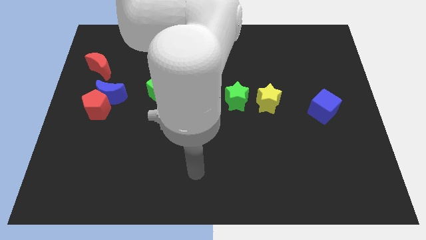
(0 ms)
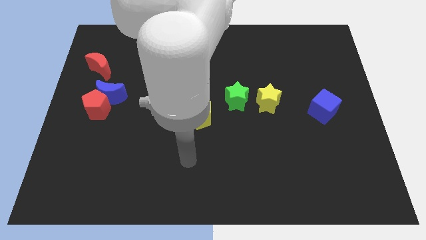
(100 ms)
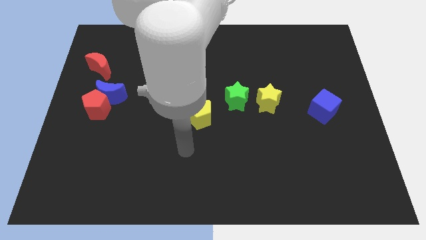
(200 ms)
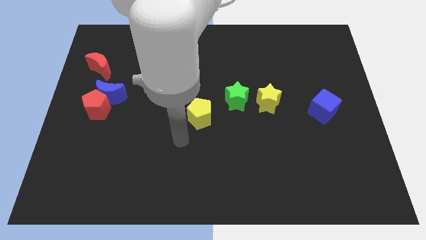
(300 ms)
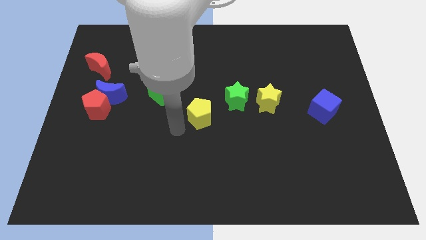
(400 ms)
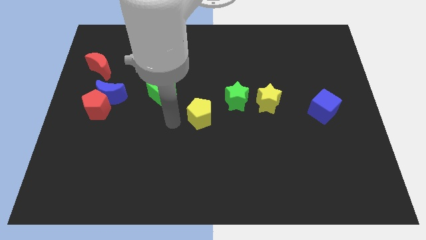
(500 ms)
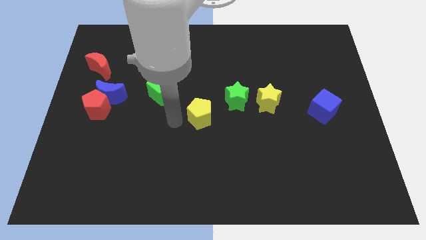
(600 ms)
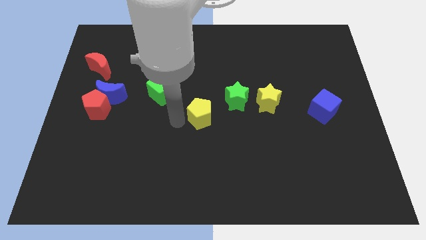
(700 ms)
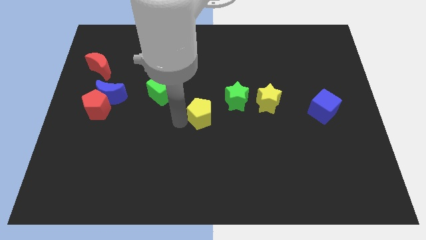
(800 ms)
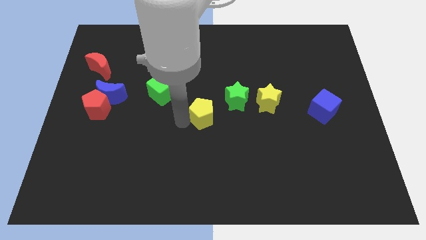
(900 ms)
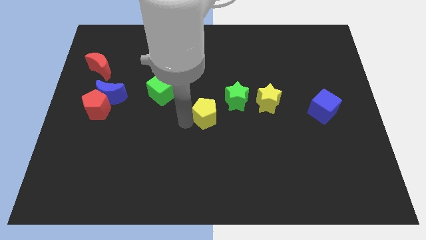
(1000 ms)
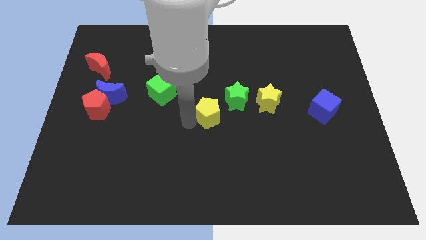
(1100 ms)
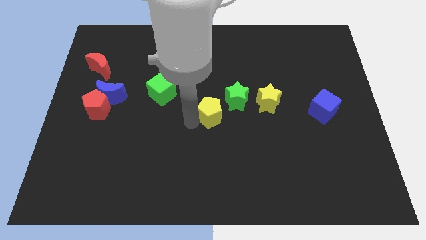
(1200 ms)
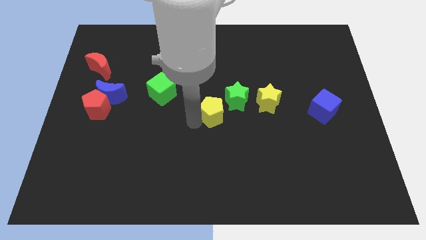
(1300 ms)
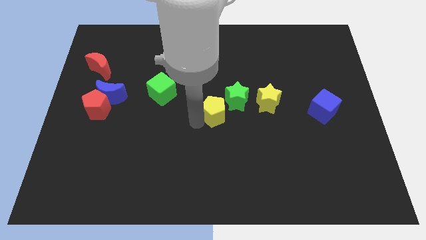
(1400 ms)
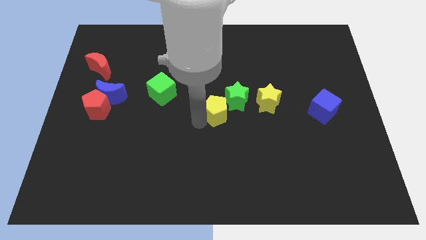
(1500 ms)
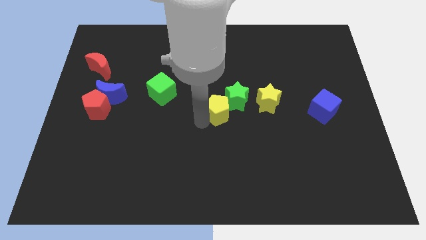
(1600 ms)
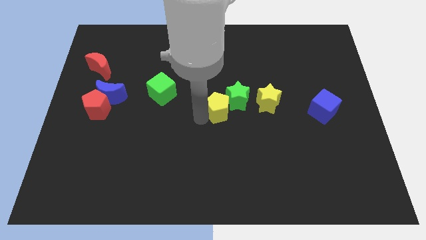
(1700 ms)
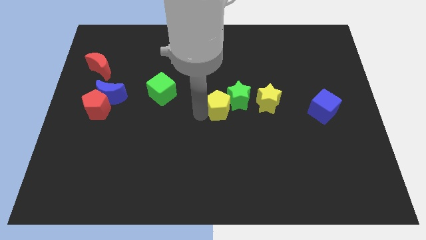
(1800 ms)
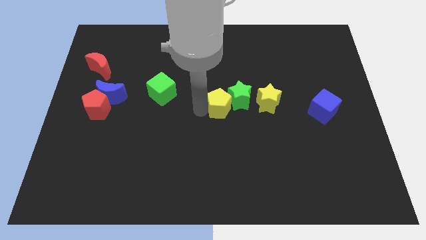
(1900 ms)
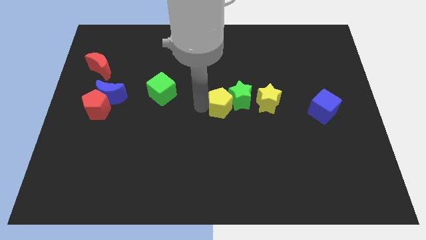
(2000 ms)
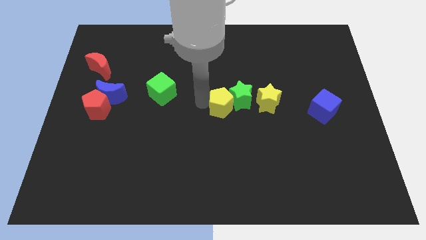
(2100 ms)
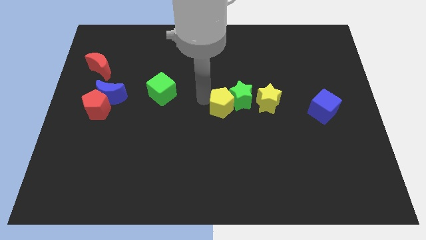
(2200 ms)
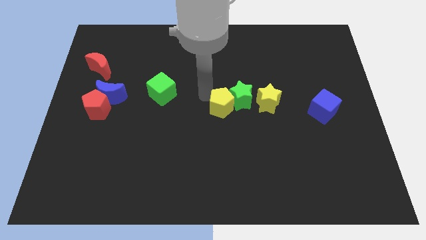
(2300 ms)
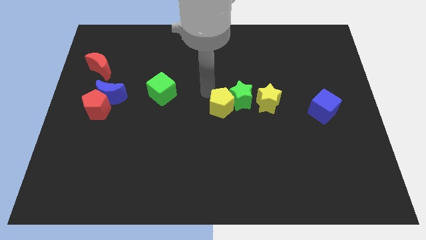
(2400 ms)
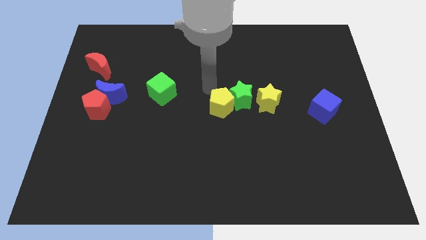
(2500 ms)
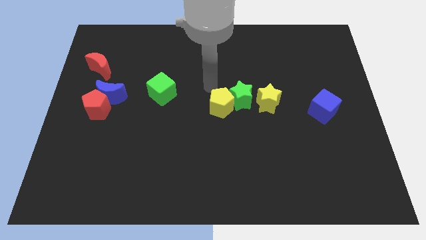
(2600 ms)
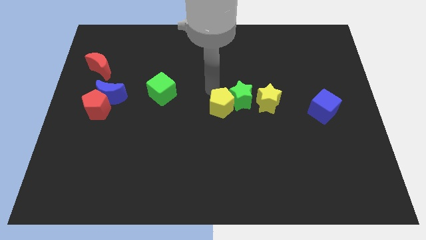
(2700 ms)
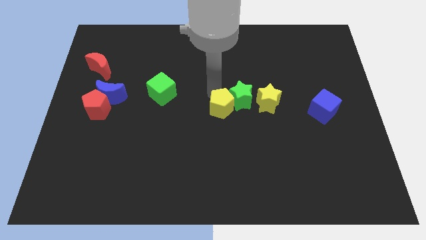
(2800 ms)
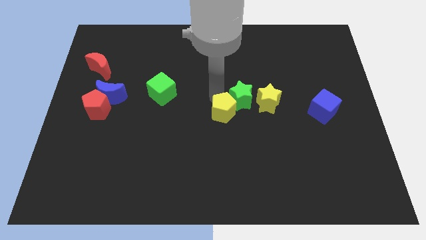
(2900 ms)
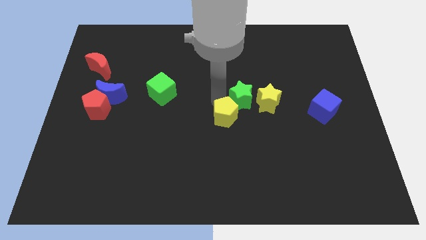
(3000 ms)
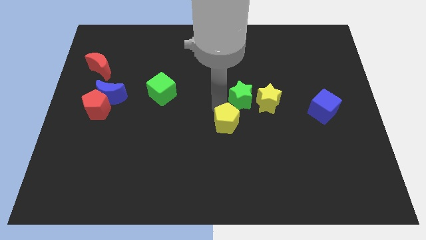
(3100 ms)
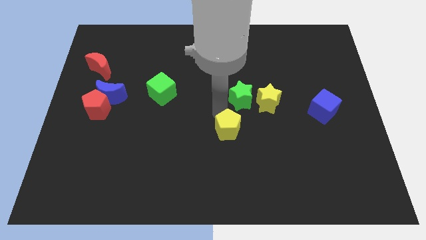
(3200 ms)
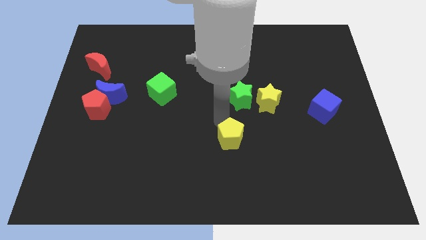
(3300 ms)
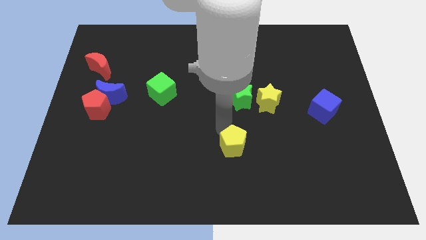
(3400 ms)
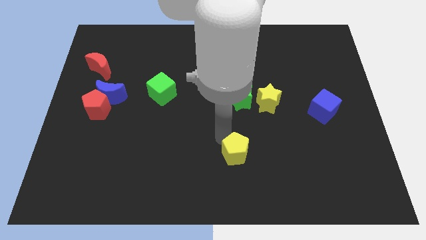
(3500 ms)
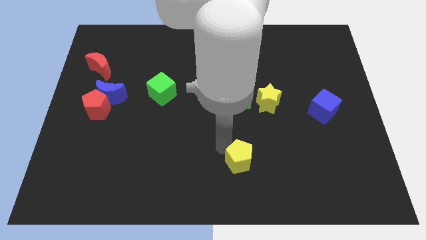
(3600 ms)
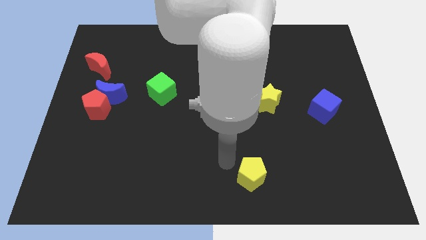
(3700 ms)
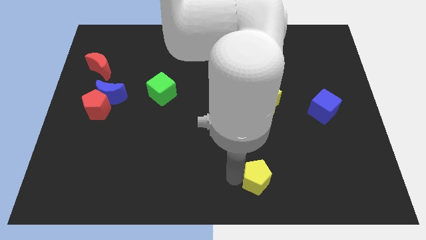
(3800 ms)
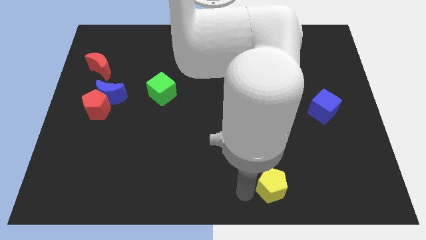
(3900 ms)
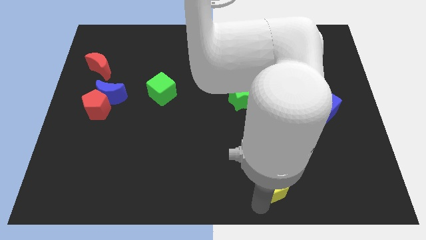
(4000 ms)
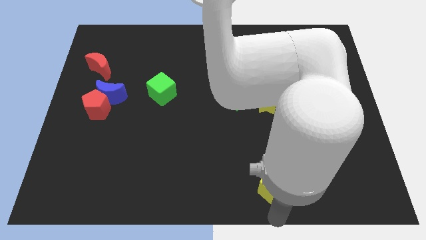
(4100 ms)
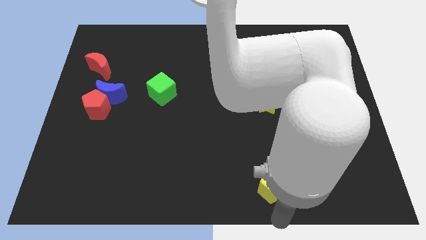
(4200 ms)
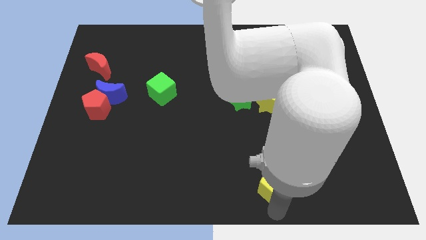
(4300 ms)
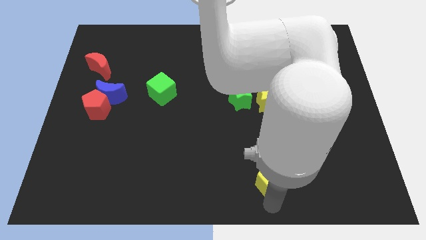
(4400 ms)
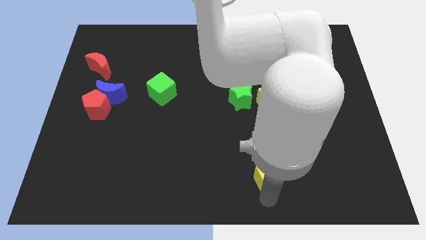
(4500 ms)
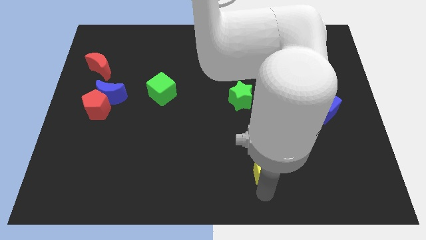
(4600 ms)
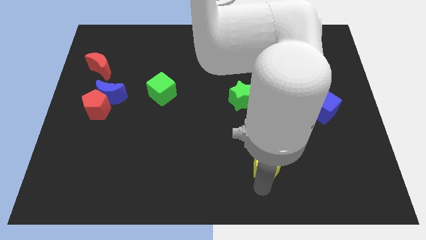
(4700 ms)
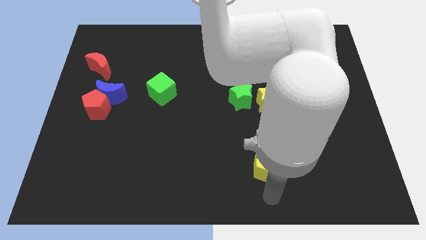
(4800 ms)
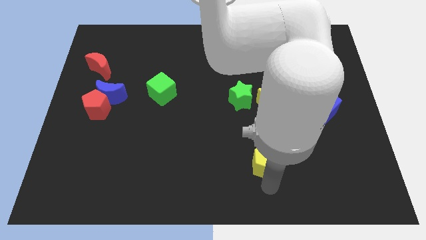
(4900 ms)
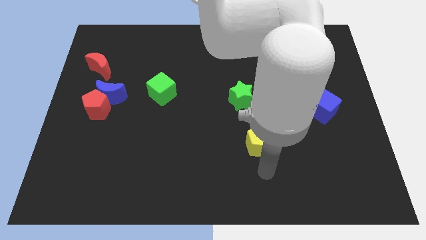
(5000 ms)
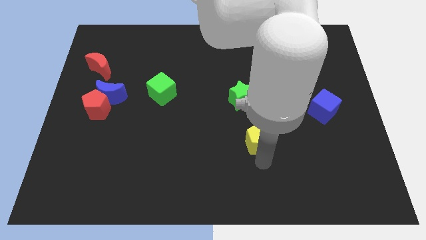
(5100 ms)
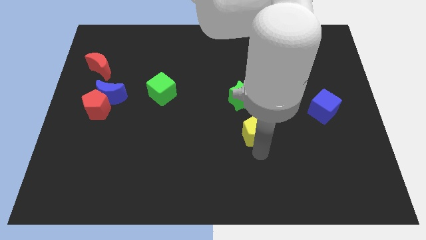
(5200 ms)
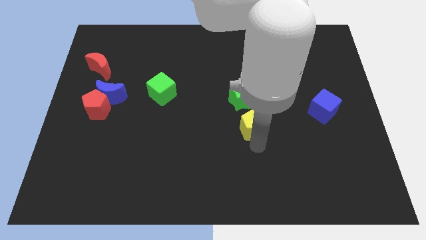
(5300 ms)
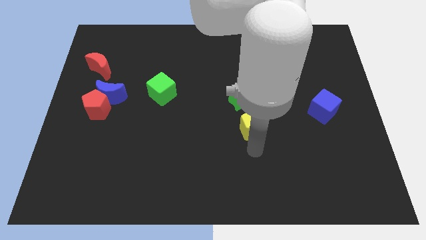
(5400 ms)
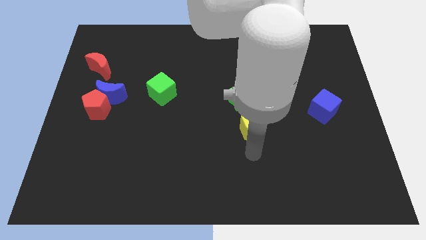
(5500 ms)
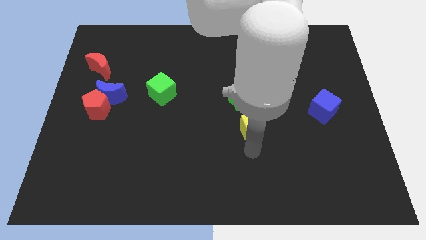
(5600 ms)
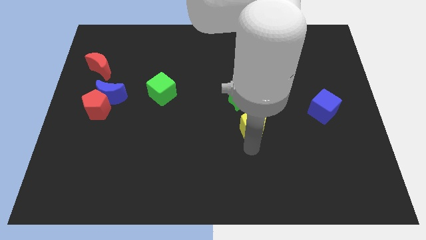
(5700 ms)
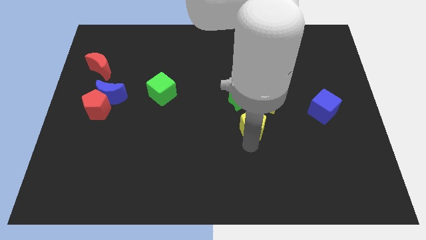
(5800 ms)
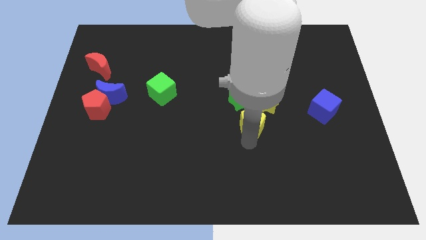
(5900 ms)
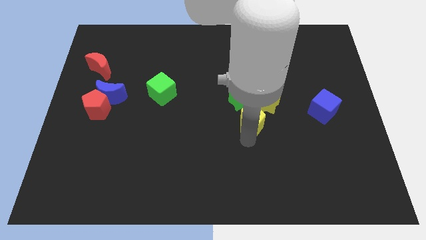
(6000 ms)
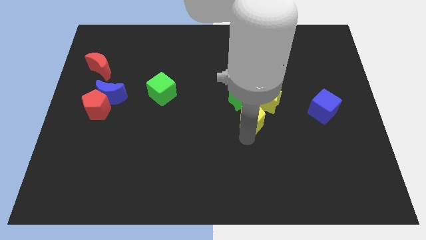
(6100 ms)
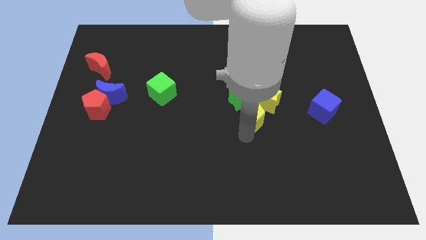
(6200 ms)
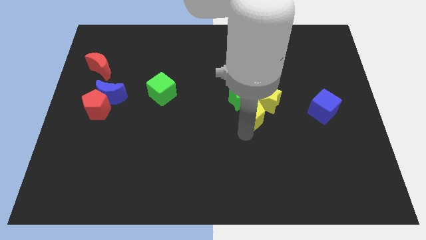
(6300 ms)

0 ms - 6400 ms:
slide the yellow pentagon close to the yellow star
